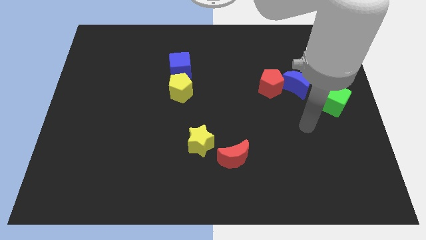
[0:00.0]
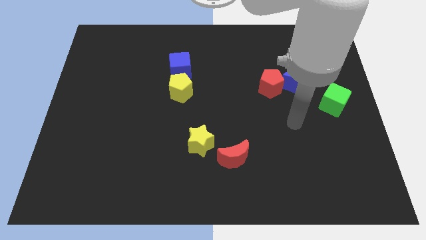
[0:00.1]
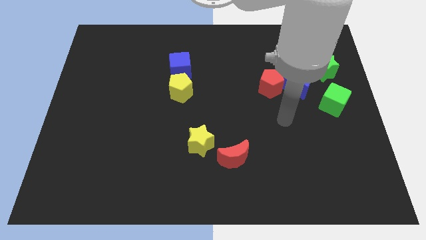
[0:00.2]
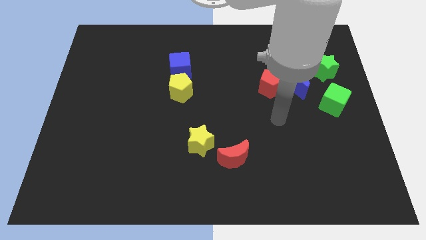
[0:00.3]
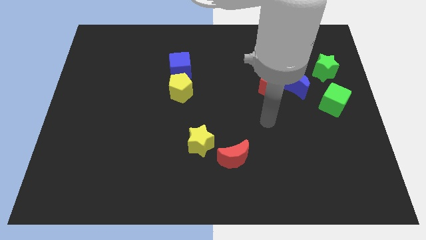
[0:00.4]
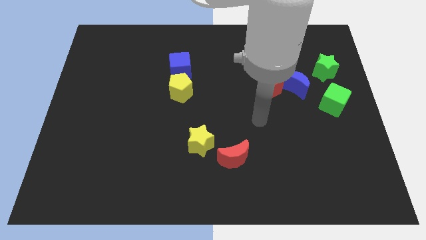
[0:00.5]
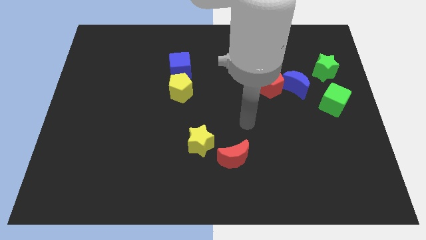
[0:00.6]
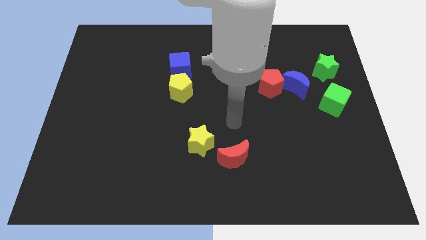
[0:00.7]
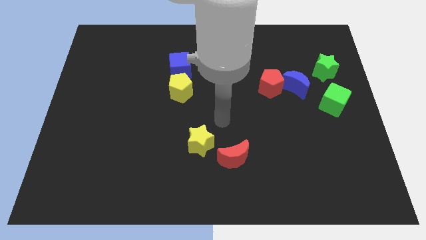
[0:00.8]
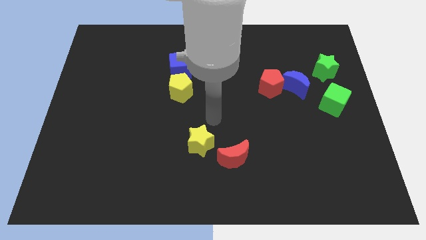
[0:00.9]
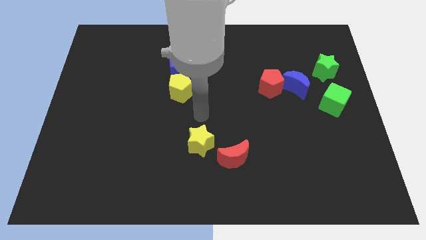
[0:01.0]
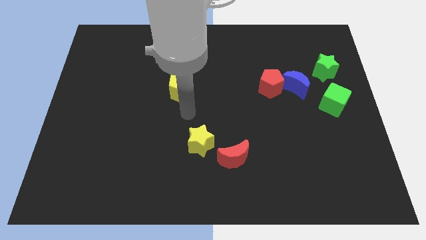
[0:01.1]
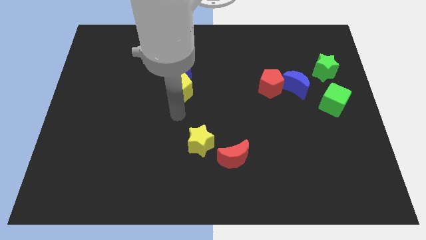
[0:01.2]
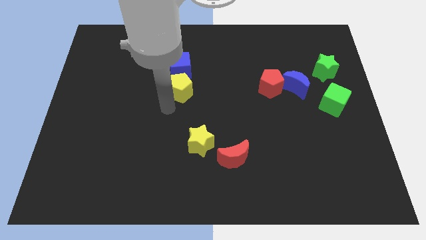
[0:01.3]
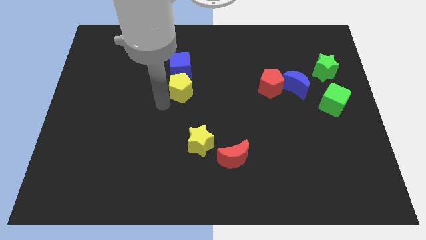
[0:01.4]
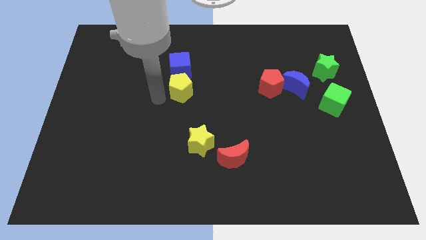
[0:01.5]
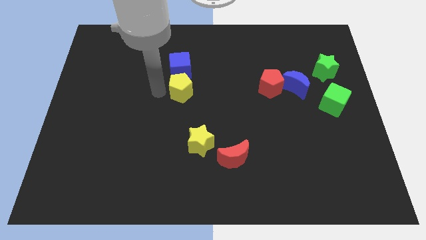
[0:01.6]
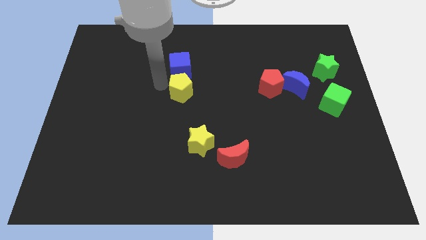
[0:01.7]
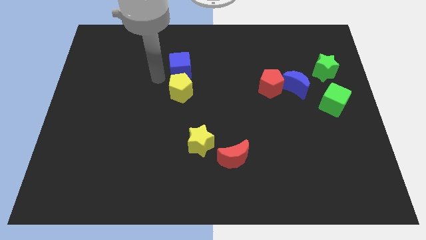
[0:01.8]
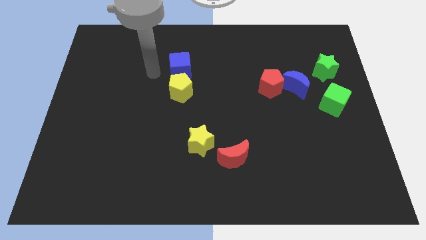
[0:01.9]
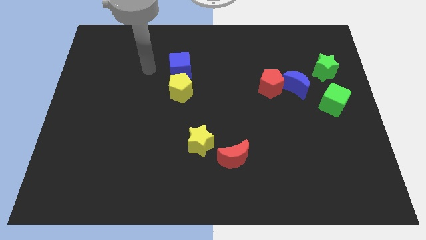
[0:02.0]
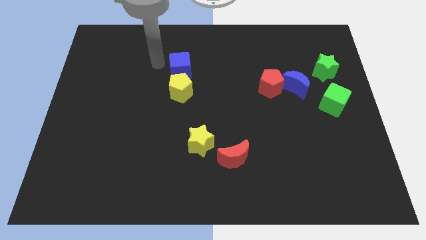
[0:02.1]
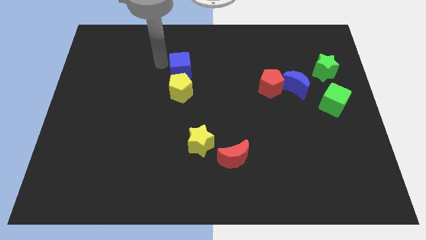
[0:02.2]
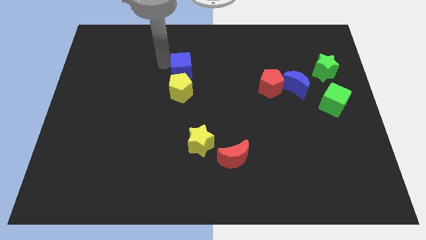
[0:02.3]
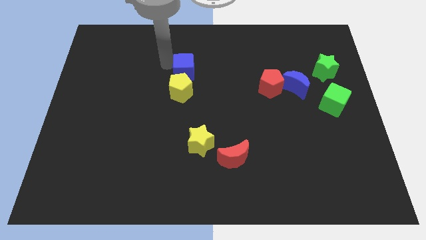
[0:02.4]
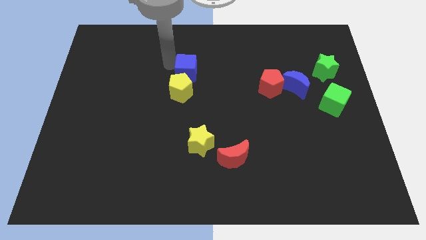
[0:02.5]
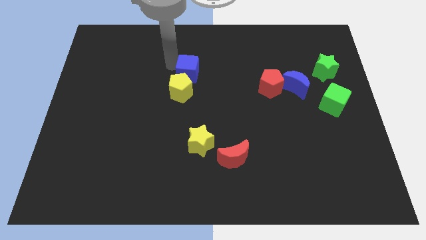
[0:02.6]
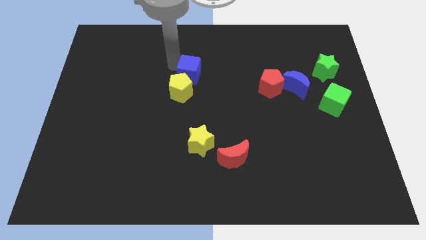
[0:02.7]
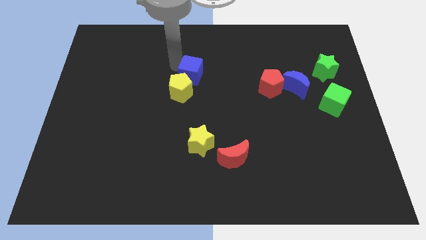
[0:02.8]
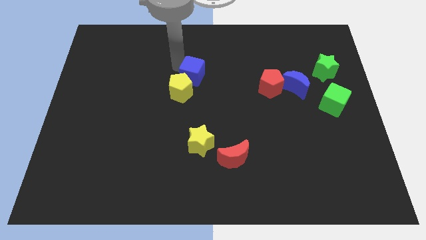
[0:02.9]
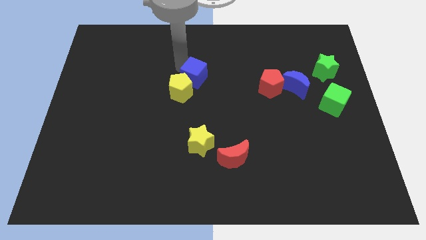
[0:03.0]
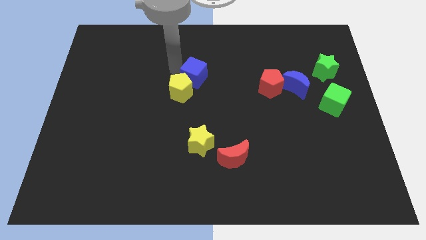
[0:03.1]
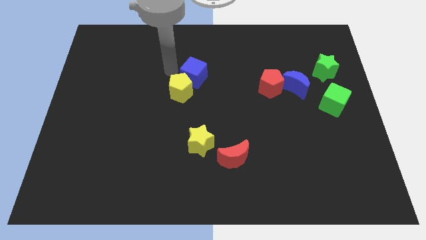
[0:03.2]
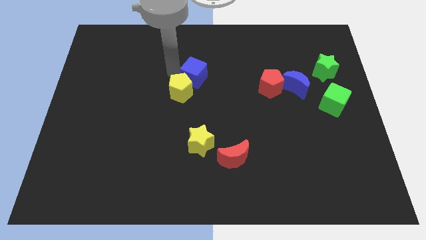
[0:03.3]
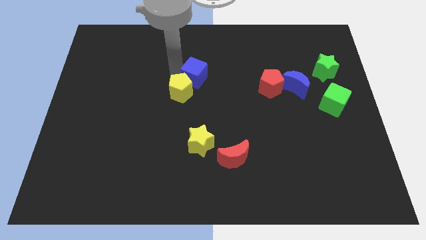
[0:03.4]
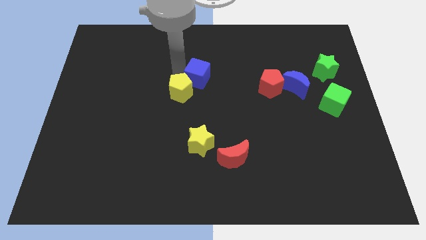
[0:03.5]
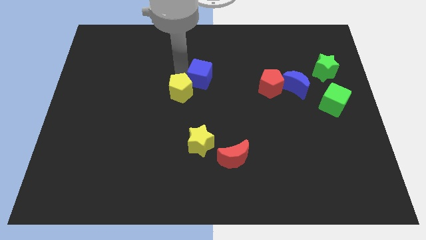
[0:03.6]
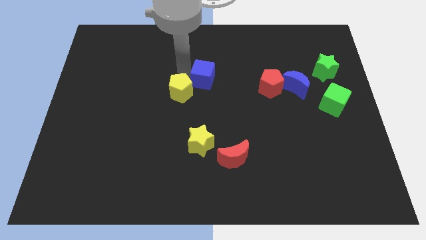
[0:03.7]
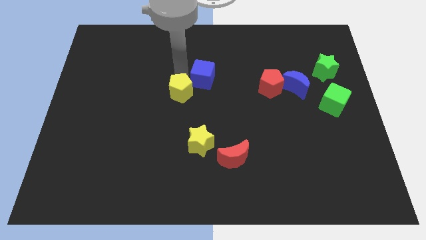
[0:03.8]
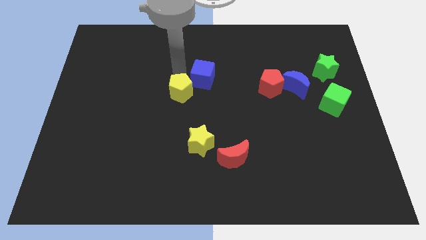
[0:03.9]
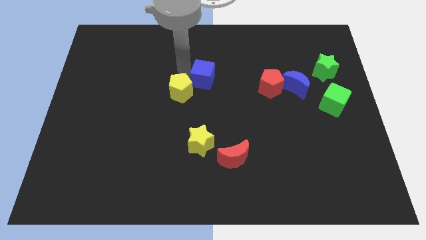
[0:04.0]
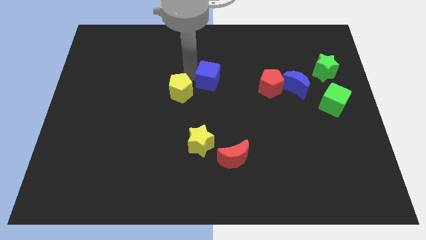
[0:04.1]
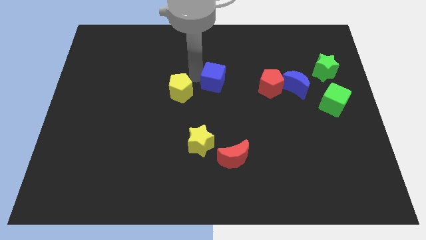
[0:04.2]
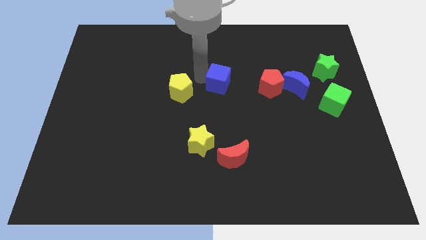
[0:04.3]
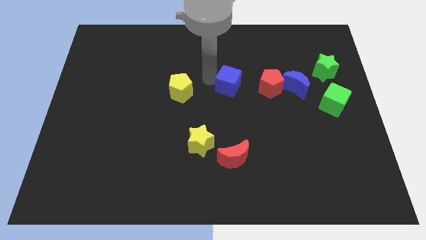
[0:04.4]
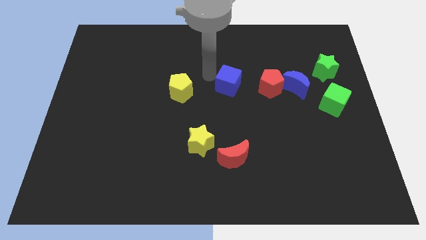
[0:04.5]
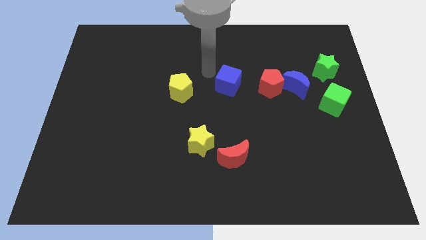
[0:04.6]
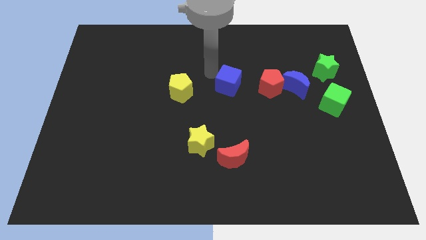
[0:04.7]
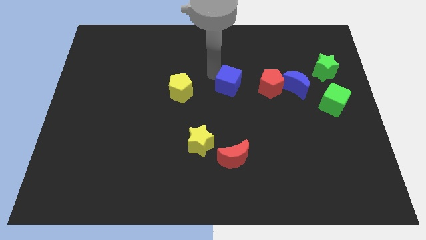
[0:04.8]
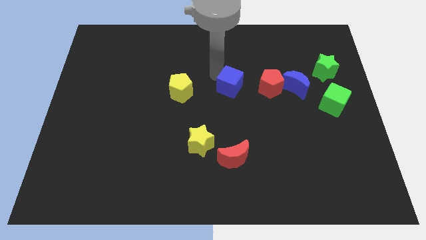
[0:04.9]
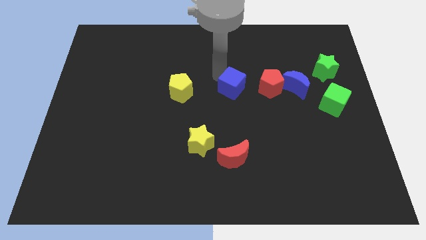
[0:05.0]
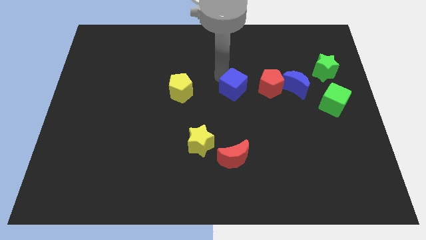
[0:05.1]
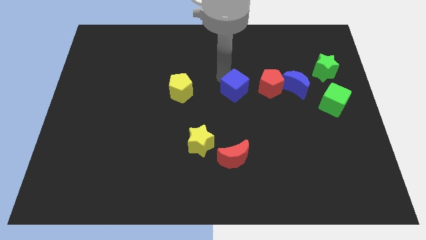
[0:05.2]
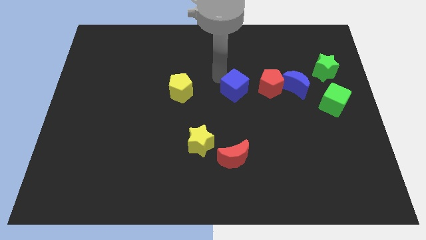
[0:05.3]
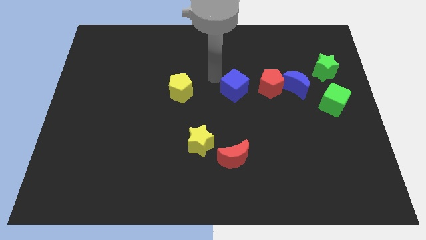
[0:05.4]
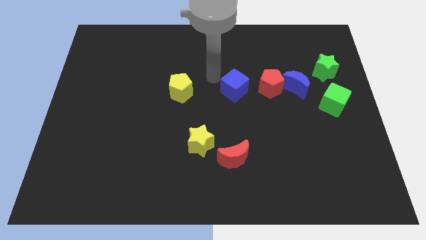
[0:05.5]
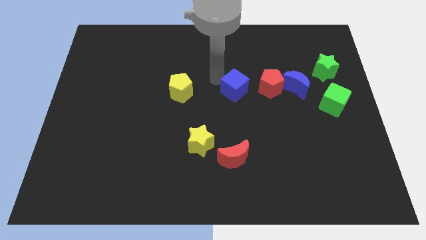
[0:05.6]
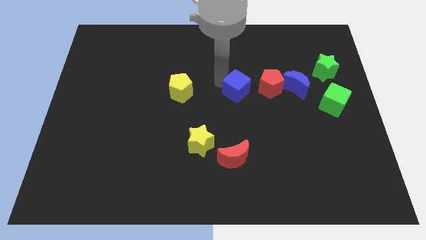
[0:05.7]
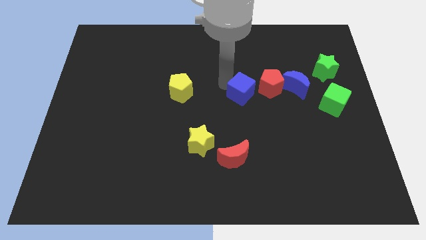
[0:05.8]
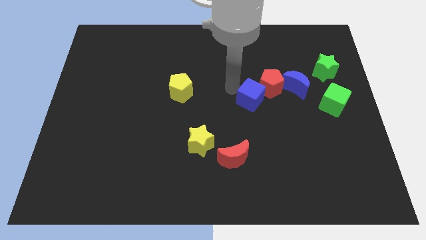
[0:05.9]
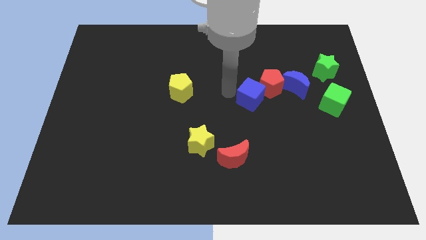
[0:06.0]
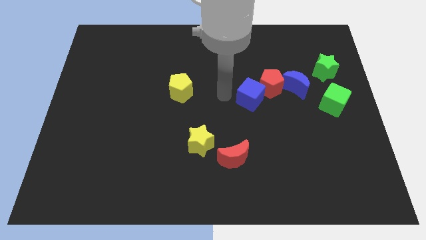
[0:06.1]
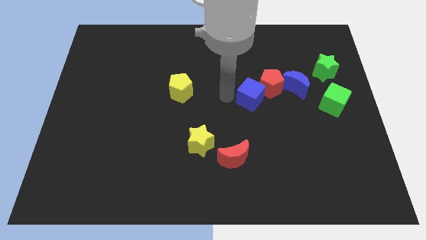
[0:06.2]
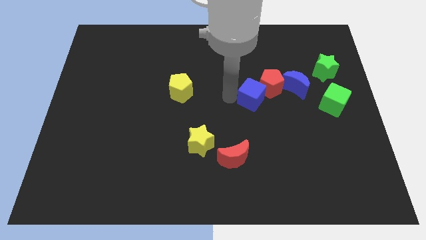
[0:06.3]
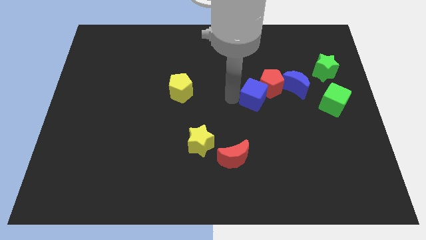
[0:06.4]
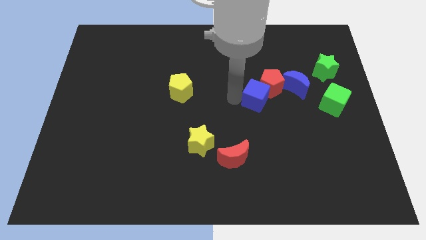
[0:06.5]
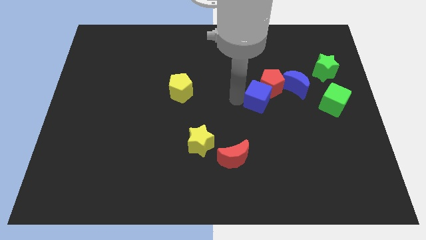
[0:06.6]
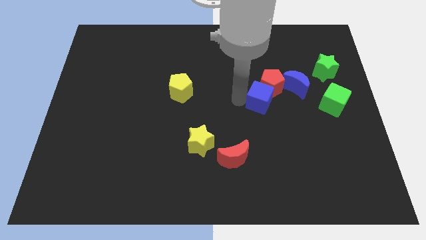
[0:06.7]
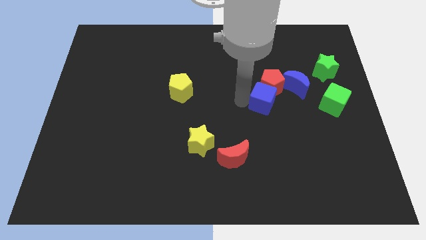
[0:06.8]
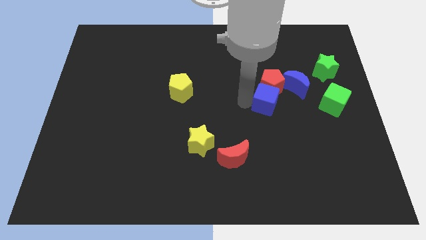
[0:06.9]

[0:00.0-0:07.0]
move the blue cube just left of the green cube

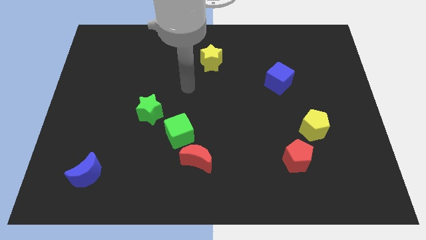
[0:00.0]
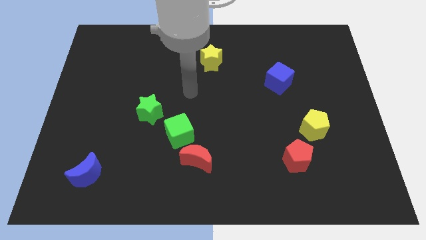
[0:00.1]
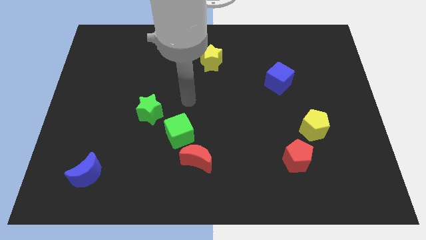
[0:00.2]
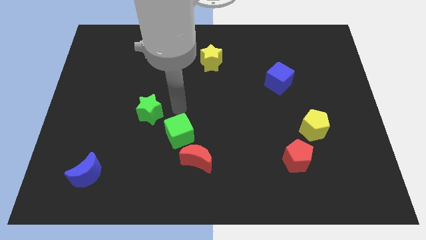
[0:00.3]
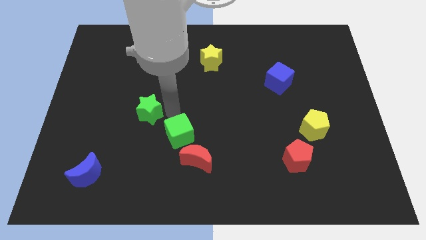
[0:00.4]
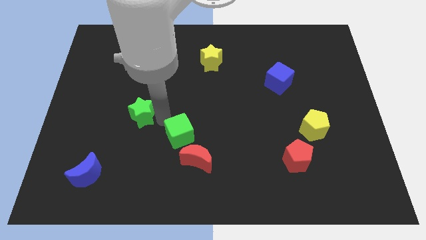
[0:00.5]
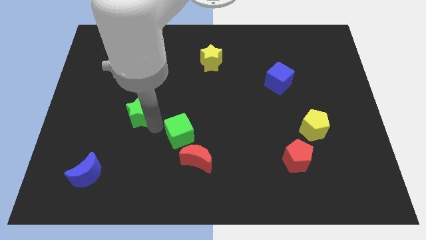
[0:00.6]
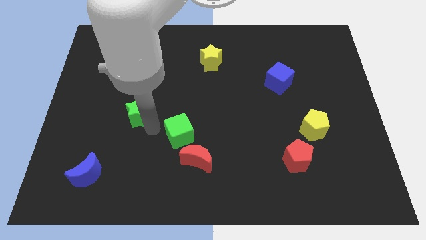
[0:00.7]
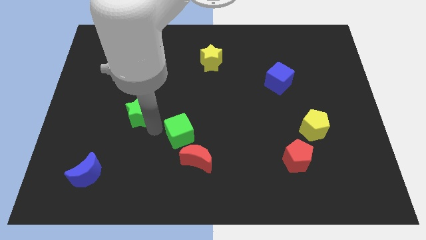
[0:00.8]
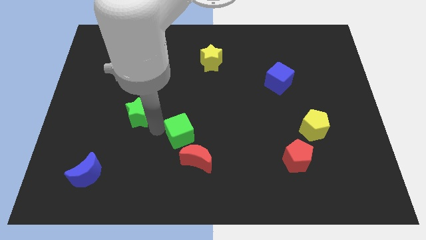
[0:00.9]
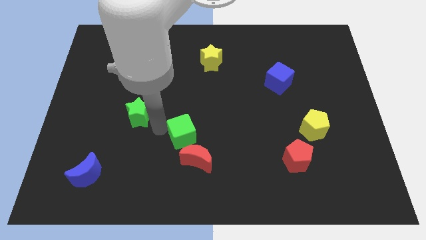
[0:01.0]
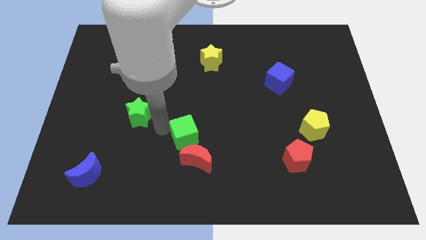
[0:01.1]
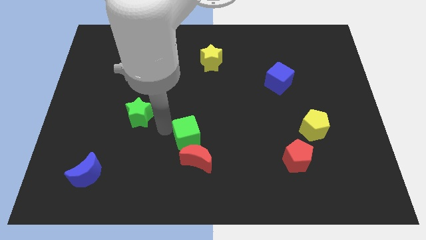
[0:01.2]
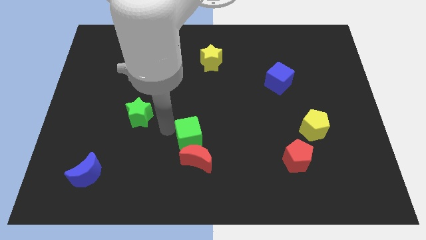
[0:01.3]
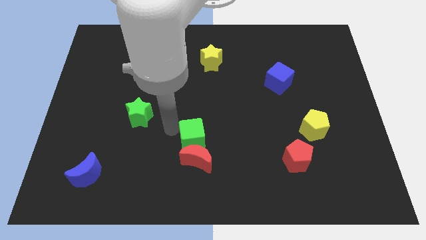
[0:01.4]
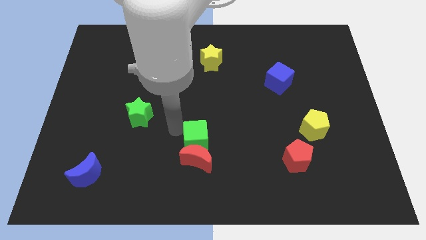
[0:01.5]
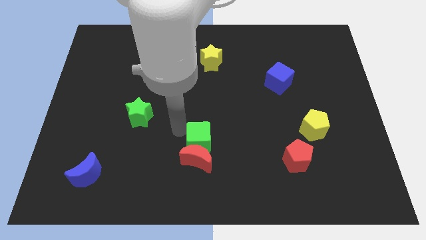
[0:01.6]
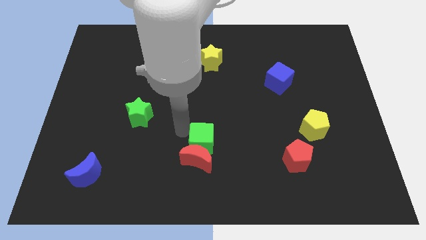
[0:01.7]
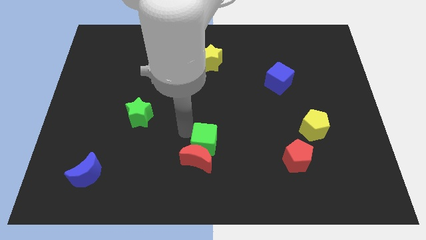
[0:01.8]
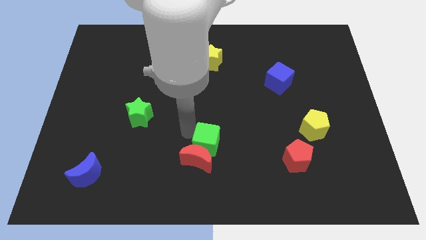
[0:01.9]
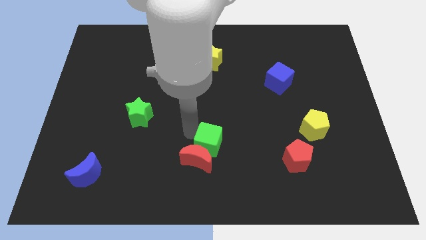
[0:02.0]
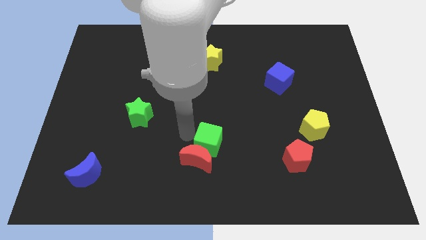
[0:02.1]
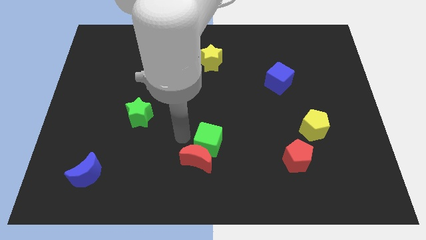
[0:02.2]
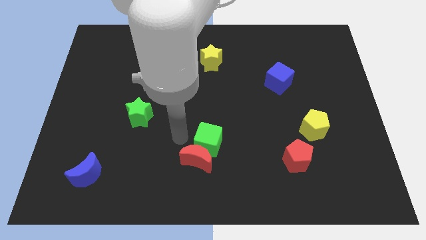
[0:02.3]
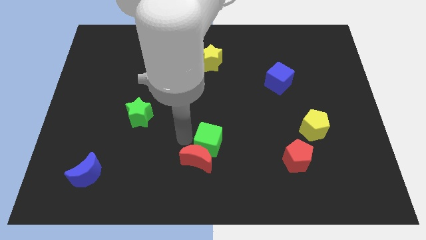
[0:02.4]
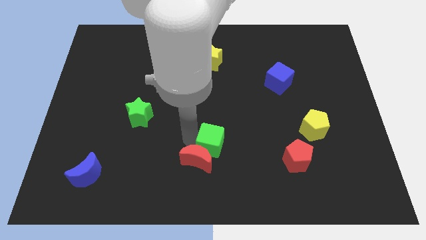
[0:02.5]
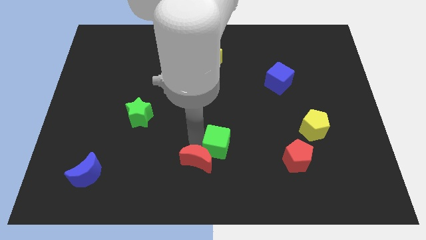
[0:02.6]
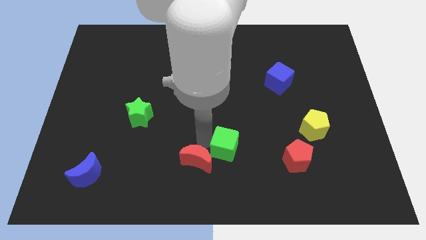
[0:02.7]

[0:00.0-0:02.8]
push the green cube to the left of the red pentagon
